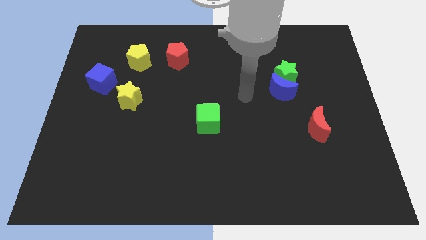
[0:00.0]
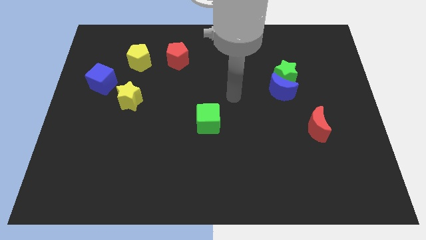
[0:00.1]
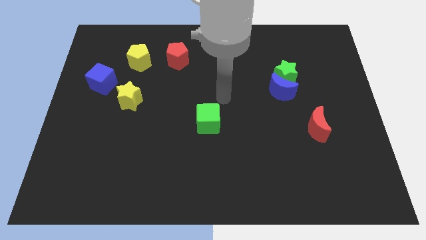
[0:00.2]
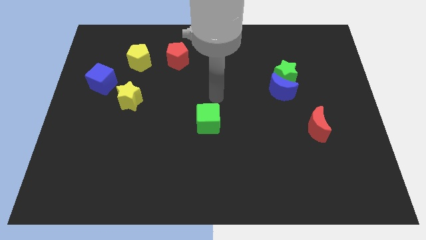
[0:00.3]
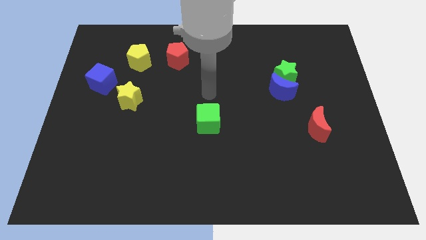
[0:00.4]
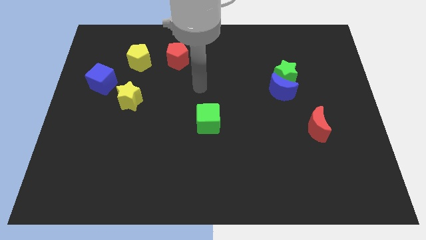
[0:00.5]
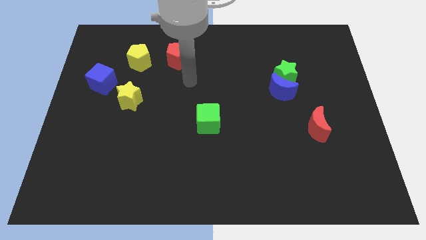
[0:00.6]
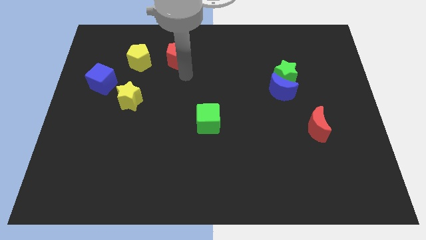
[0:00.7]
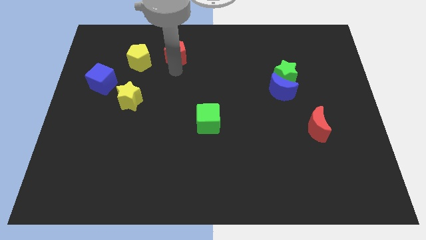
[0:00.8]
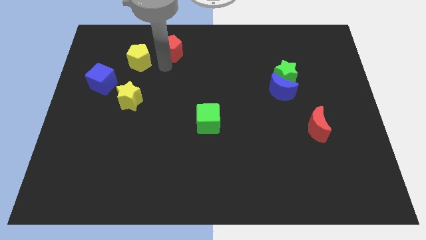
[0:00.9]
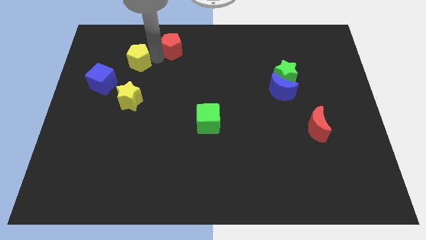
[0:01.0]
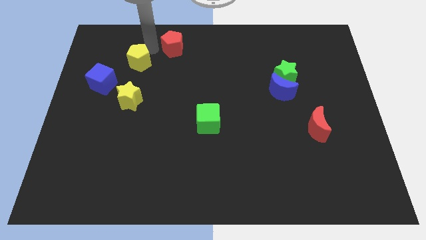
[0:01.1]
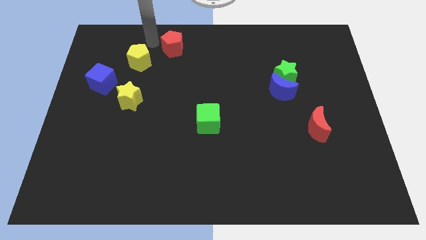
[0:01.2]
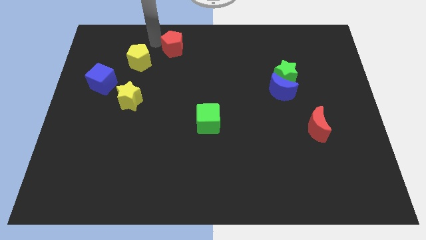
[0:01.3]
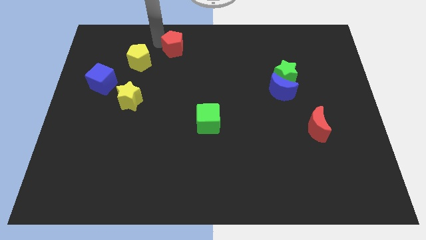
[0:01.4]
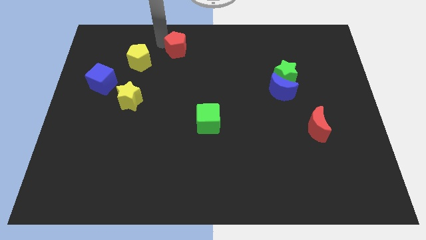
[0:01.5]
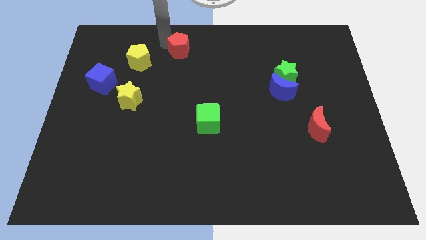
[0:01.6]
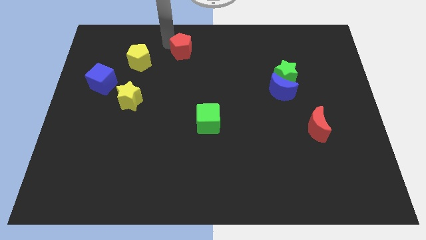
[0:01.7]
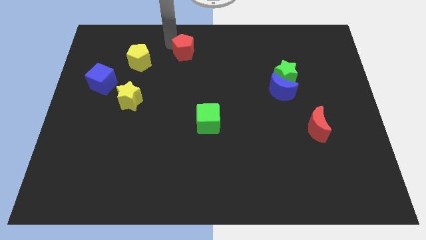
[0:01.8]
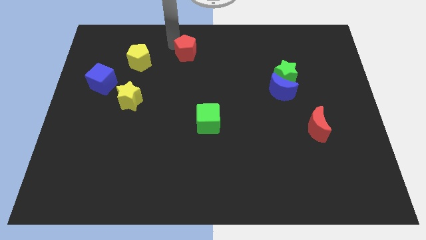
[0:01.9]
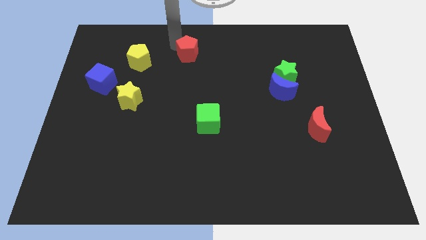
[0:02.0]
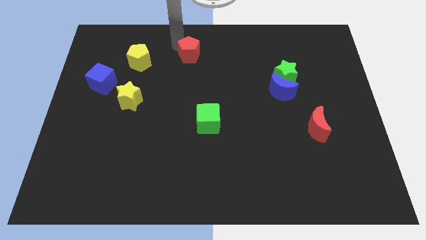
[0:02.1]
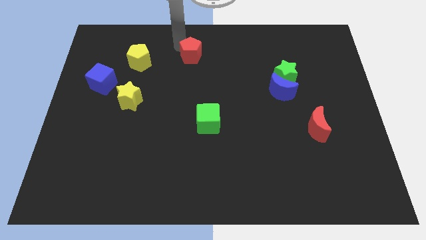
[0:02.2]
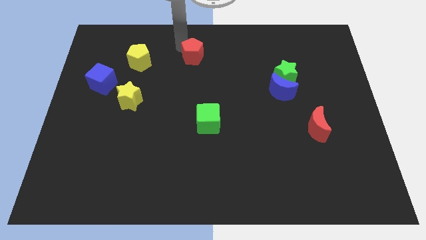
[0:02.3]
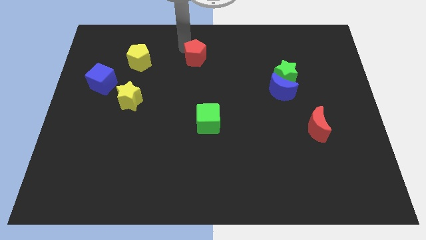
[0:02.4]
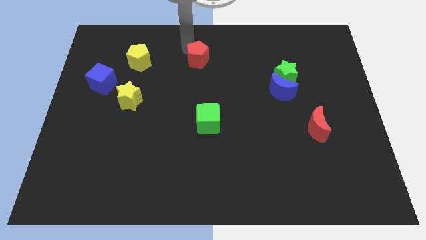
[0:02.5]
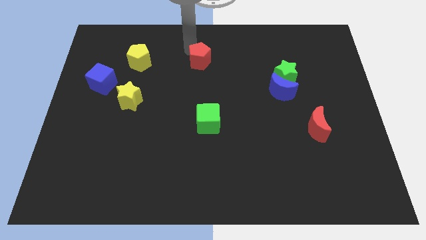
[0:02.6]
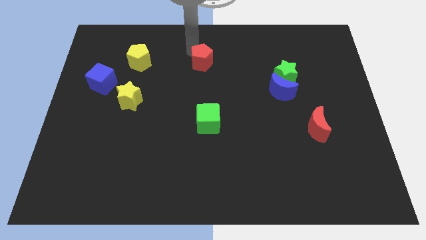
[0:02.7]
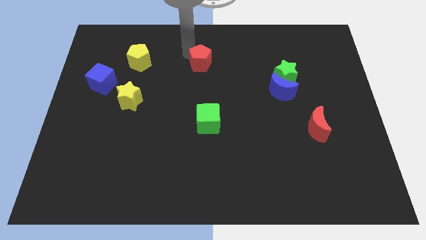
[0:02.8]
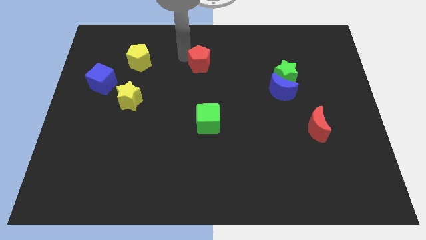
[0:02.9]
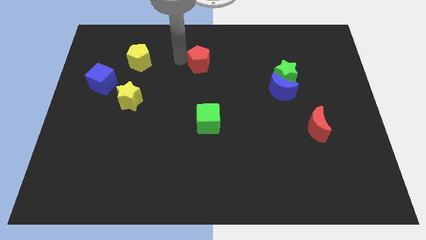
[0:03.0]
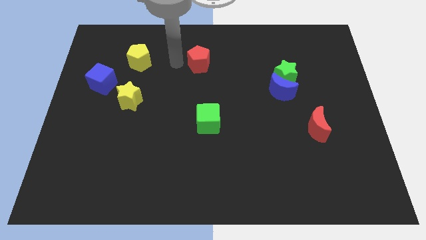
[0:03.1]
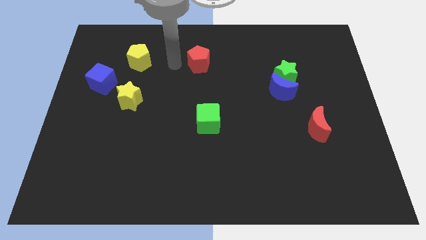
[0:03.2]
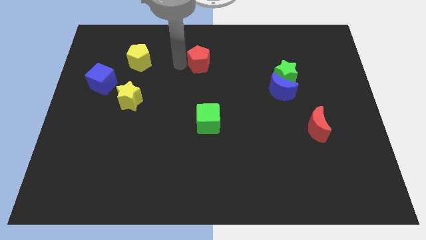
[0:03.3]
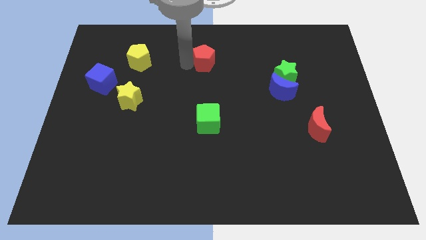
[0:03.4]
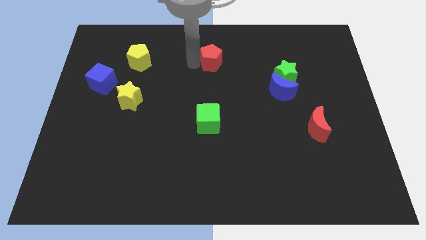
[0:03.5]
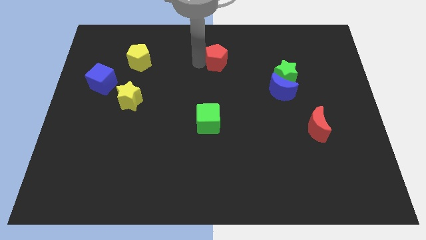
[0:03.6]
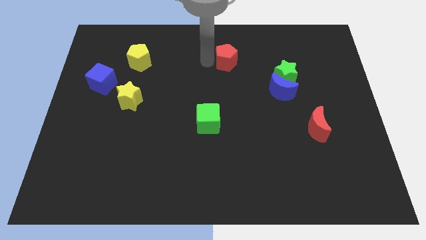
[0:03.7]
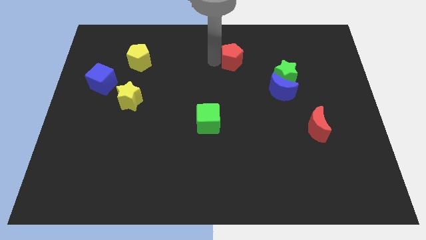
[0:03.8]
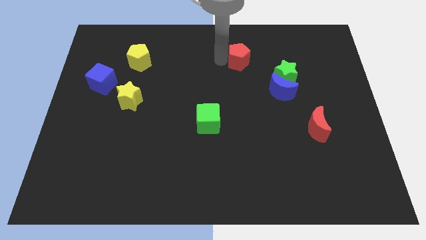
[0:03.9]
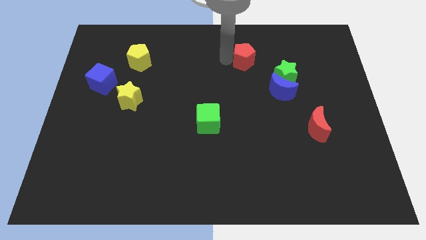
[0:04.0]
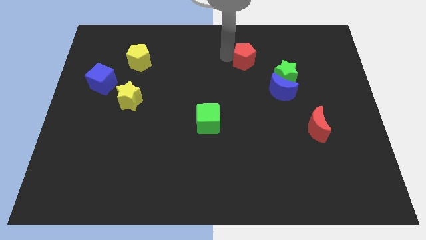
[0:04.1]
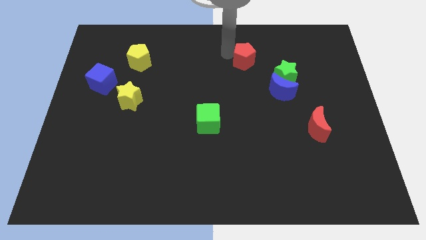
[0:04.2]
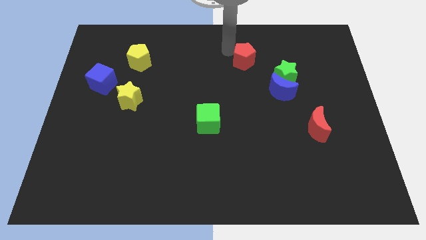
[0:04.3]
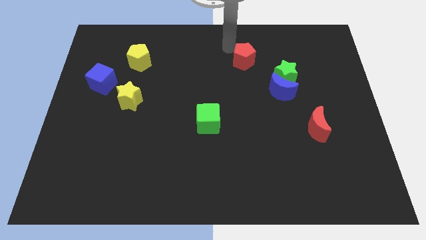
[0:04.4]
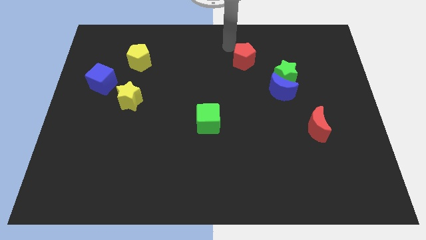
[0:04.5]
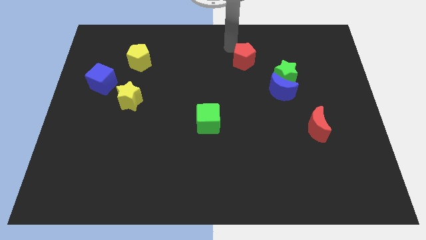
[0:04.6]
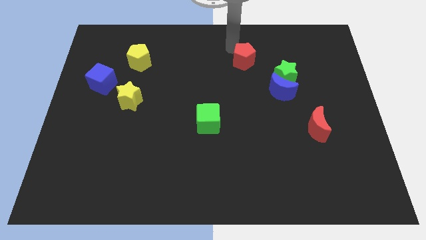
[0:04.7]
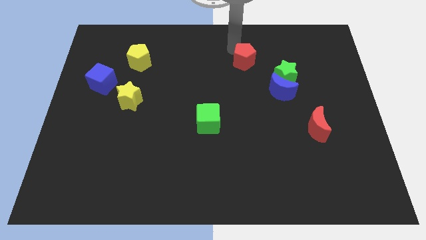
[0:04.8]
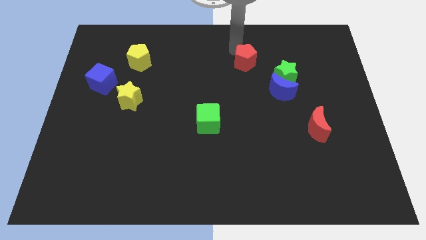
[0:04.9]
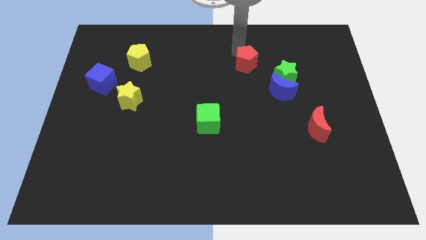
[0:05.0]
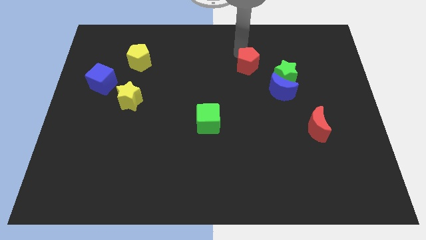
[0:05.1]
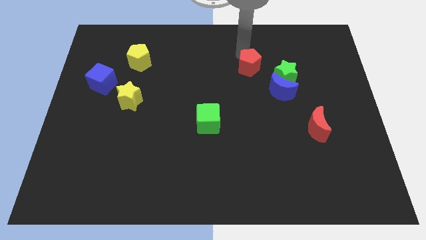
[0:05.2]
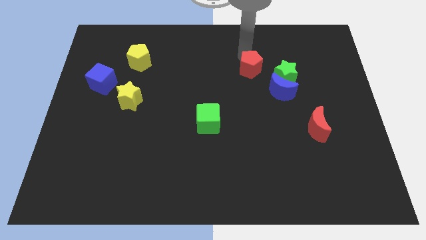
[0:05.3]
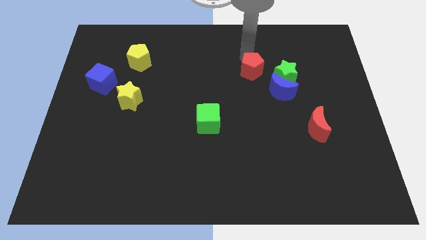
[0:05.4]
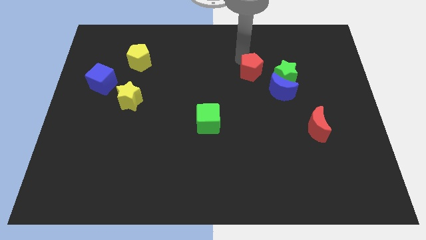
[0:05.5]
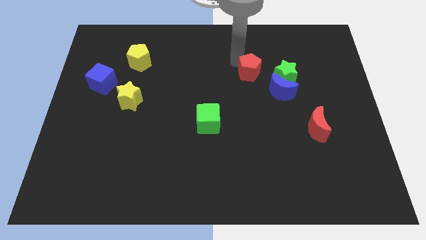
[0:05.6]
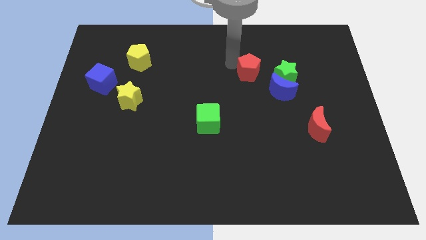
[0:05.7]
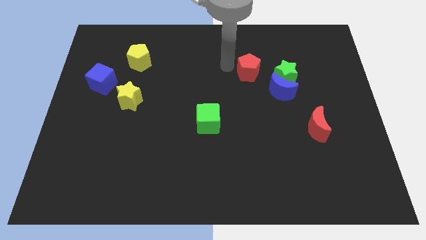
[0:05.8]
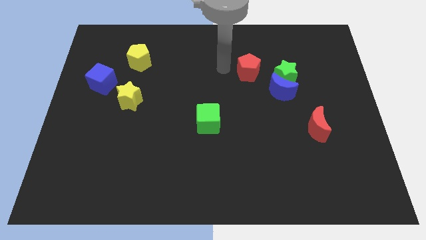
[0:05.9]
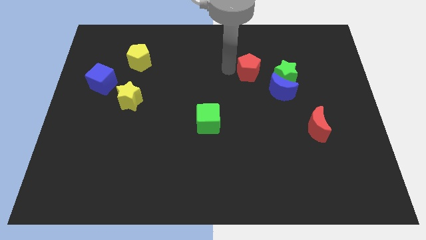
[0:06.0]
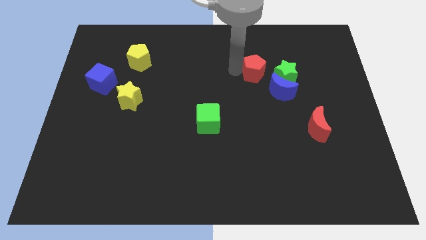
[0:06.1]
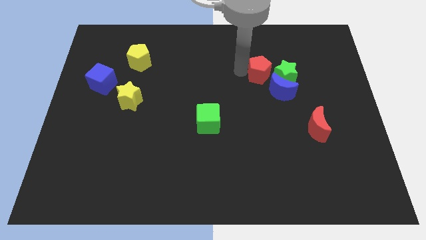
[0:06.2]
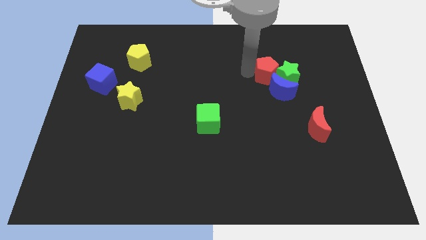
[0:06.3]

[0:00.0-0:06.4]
put the red pentagon next to the green star

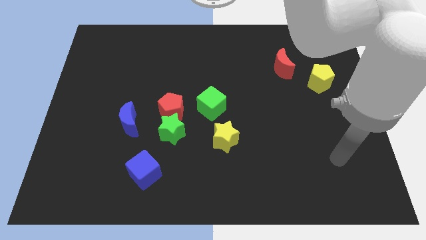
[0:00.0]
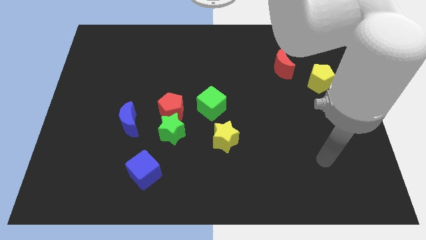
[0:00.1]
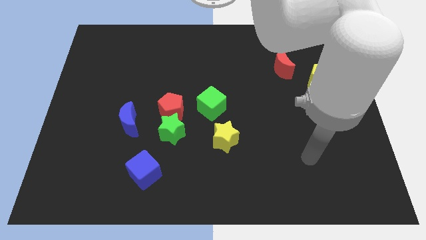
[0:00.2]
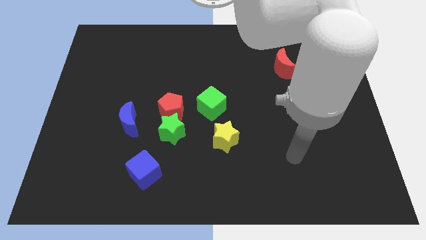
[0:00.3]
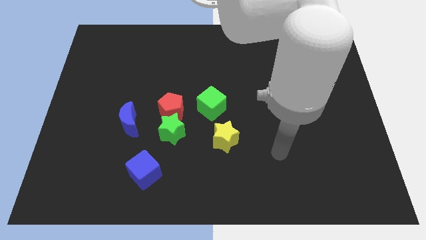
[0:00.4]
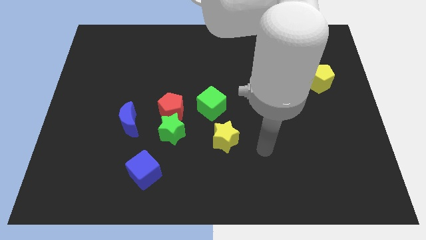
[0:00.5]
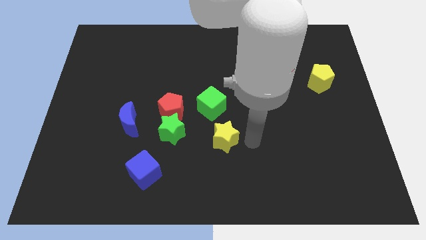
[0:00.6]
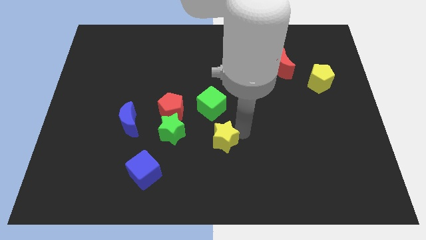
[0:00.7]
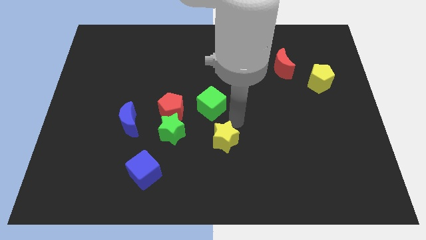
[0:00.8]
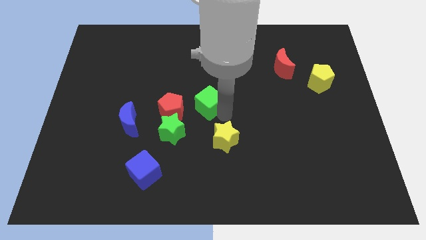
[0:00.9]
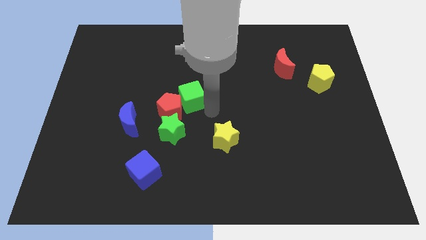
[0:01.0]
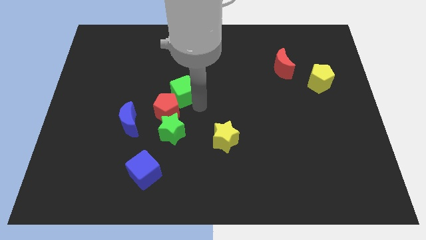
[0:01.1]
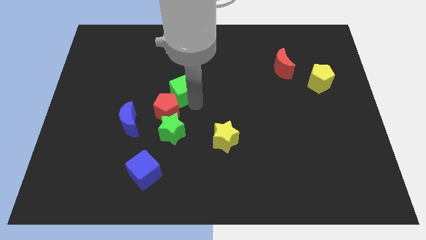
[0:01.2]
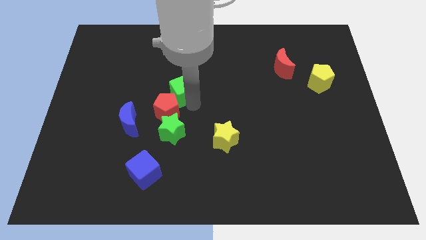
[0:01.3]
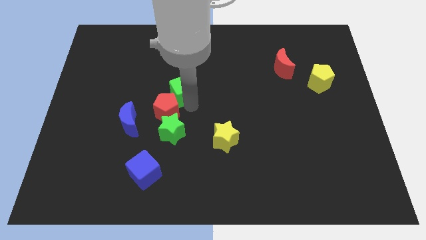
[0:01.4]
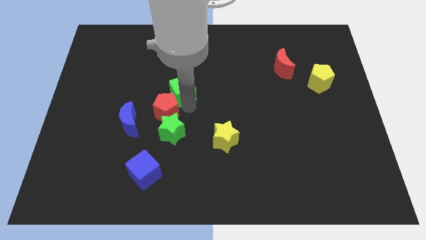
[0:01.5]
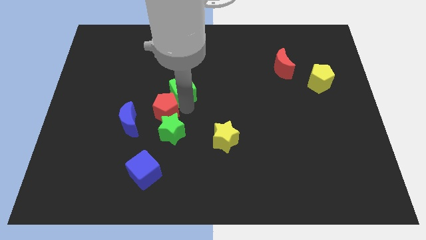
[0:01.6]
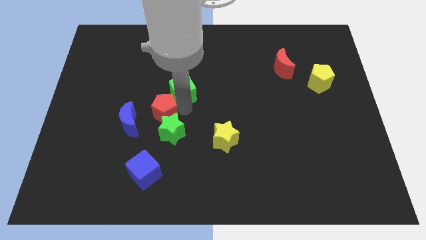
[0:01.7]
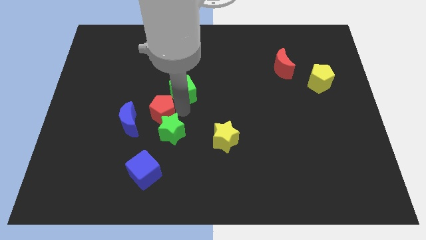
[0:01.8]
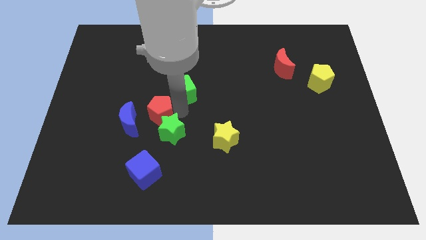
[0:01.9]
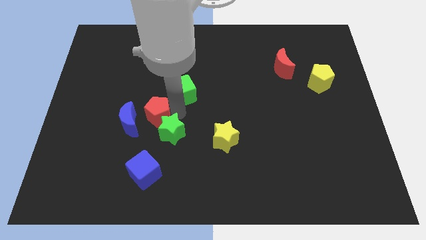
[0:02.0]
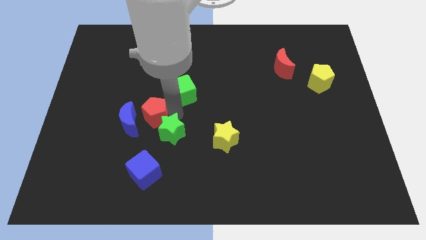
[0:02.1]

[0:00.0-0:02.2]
slide the red pentagon close to the blue moon
